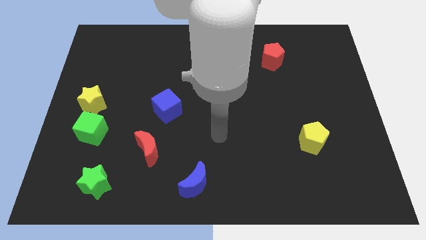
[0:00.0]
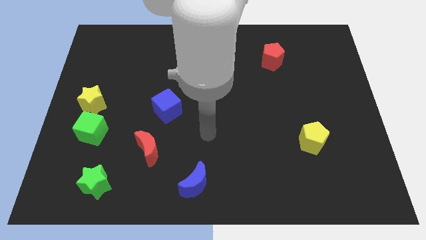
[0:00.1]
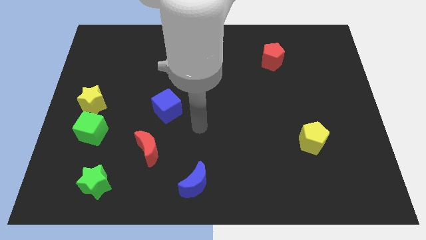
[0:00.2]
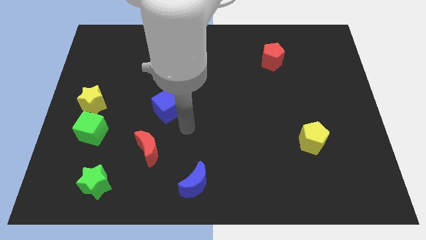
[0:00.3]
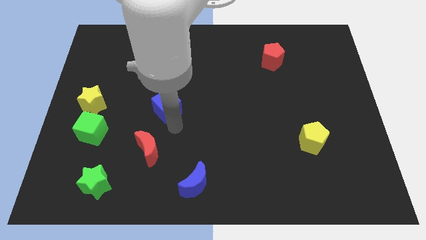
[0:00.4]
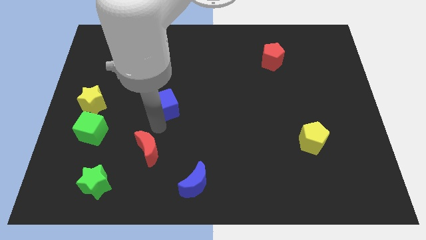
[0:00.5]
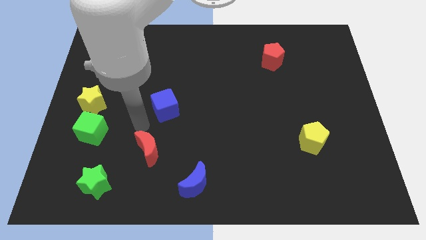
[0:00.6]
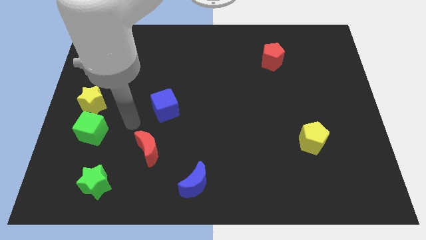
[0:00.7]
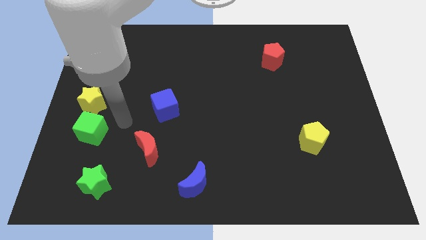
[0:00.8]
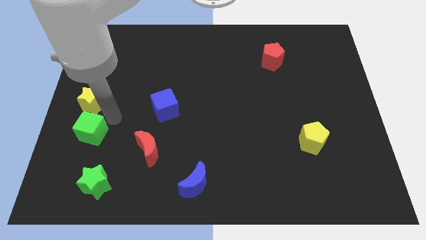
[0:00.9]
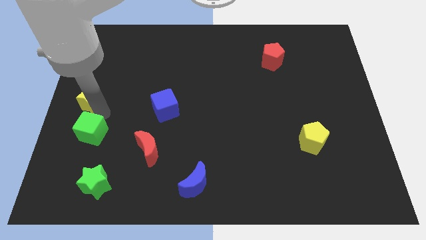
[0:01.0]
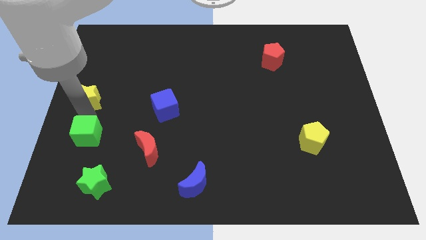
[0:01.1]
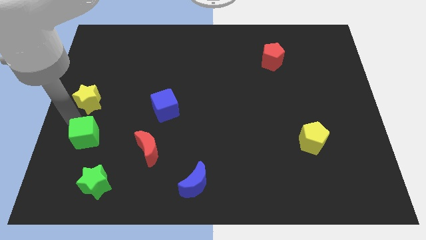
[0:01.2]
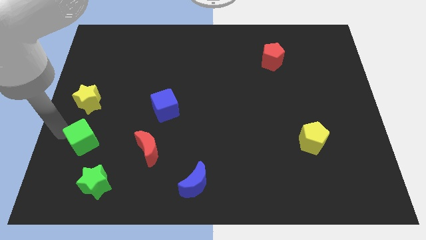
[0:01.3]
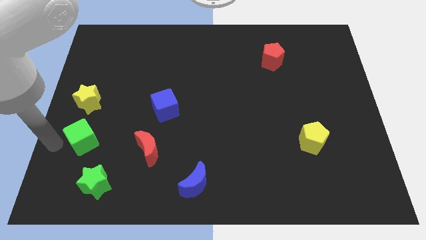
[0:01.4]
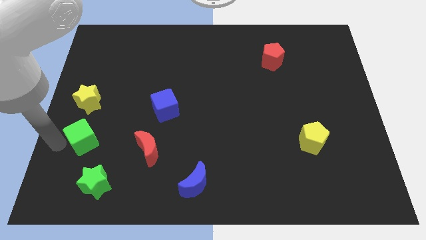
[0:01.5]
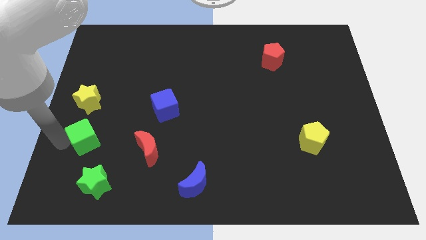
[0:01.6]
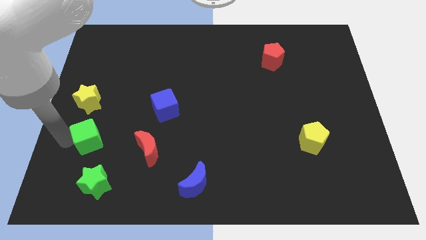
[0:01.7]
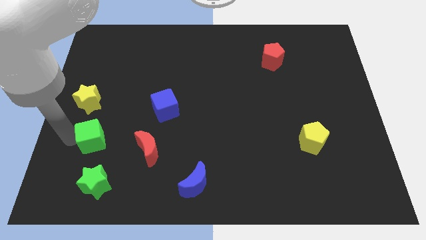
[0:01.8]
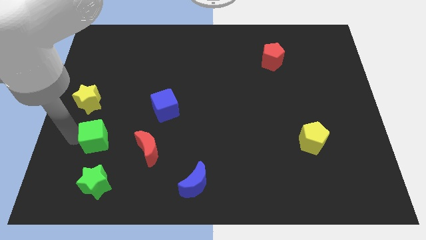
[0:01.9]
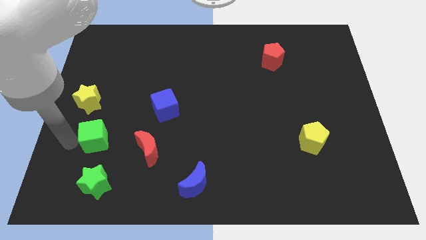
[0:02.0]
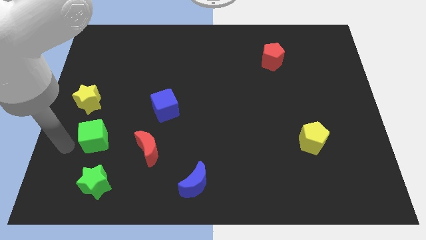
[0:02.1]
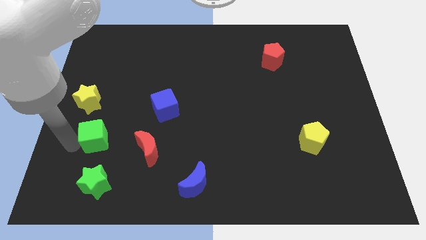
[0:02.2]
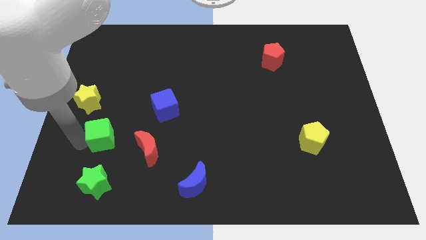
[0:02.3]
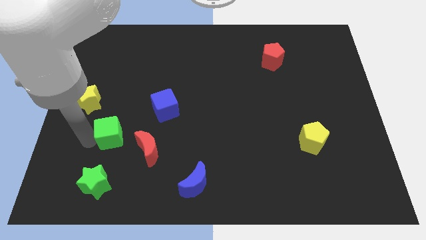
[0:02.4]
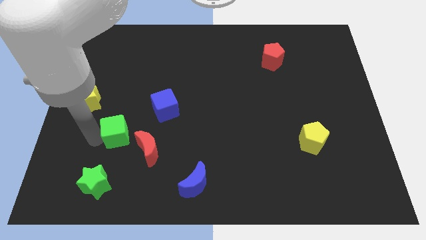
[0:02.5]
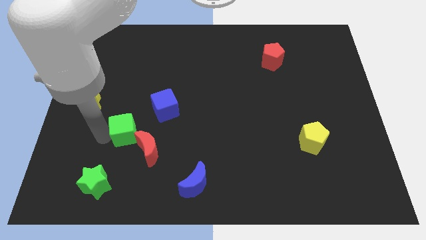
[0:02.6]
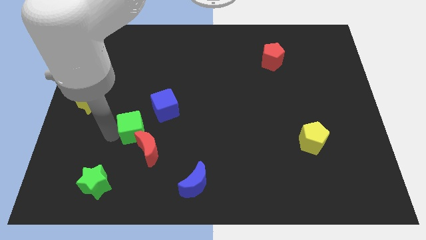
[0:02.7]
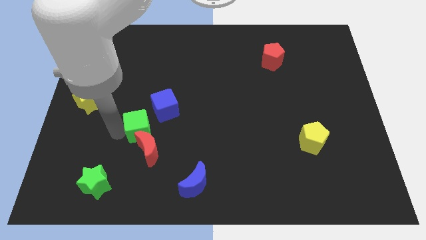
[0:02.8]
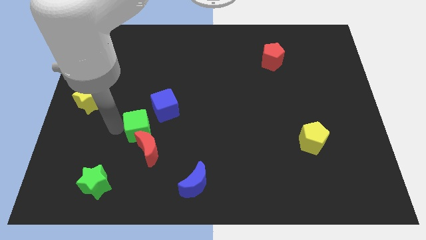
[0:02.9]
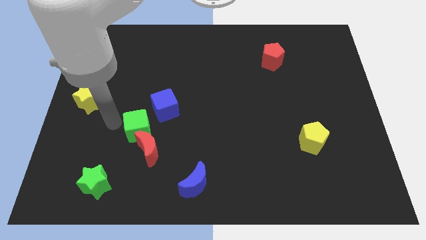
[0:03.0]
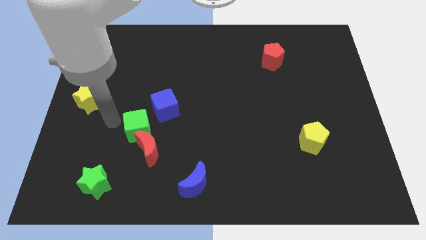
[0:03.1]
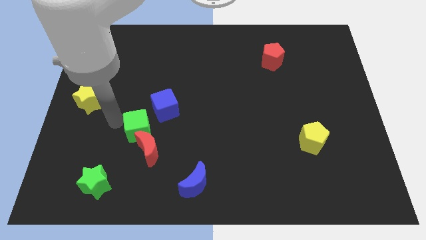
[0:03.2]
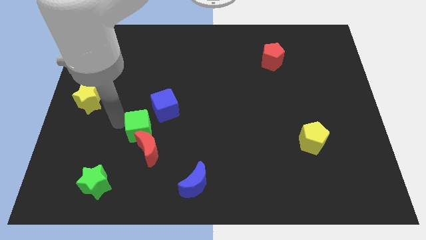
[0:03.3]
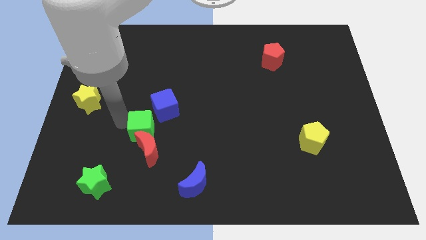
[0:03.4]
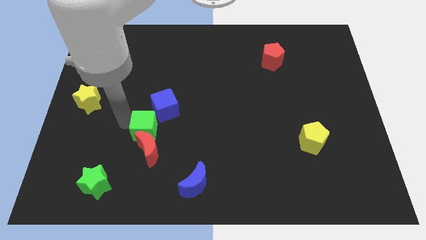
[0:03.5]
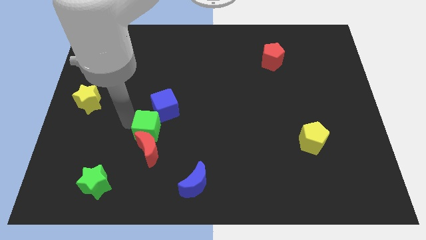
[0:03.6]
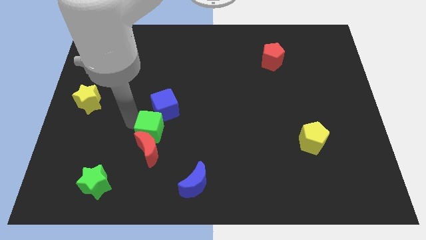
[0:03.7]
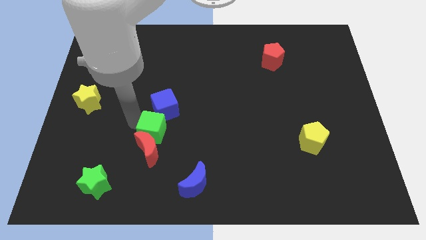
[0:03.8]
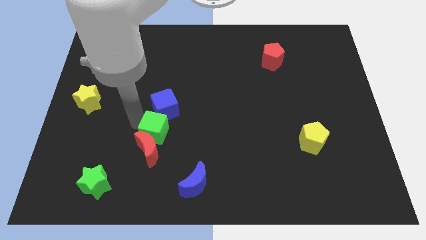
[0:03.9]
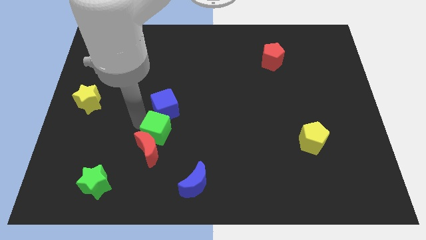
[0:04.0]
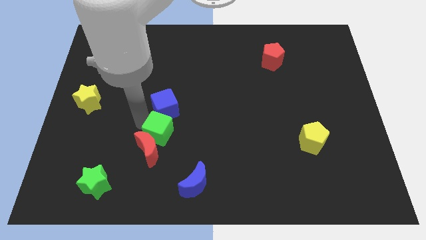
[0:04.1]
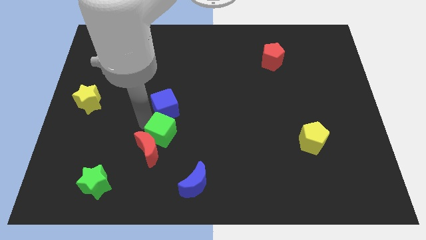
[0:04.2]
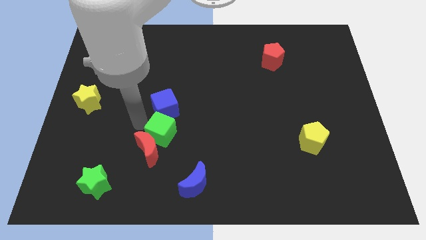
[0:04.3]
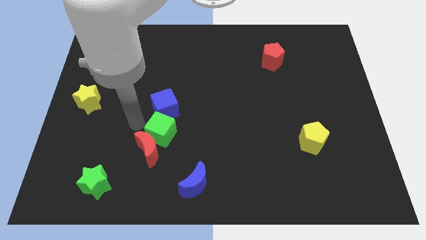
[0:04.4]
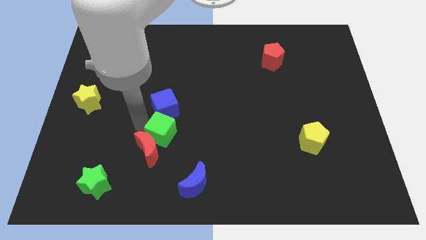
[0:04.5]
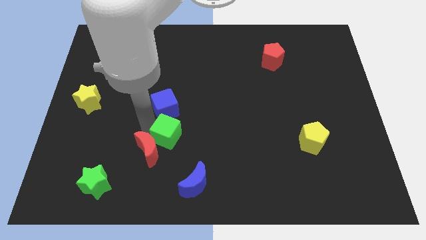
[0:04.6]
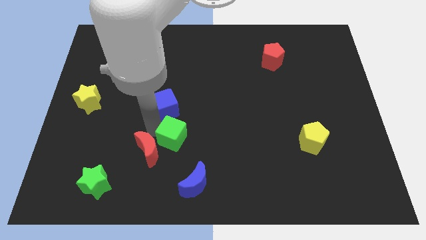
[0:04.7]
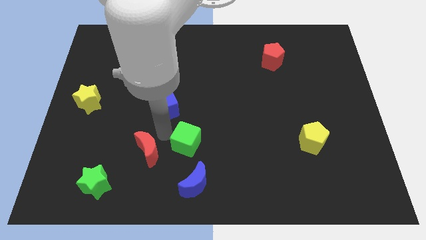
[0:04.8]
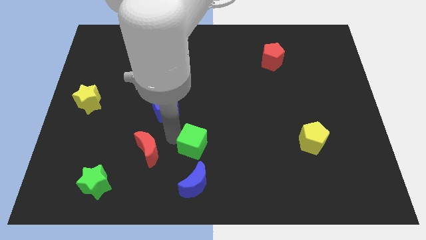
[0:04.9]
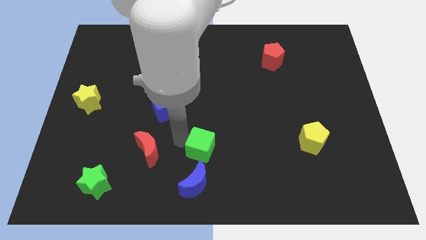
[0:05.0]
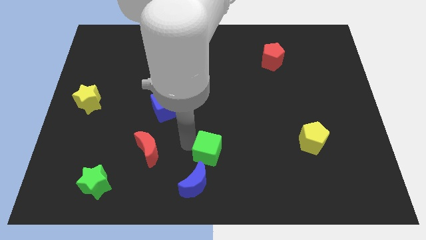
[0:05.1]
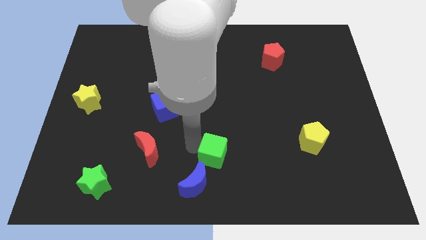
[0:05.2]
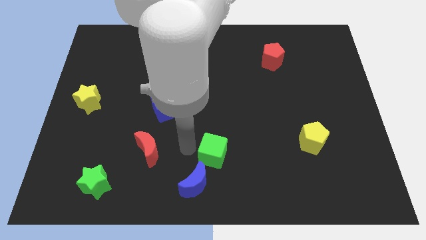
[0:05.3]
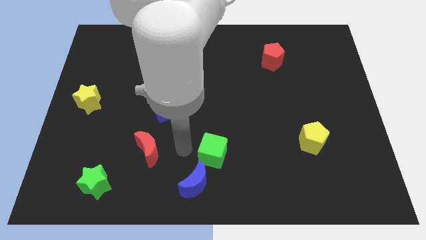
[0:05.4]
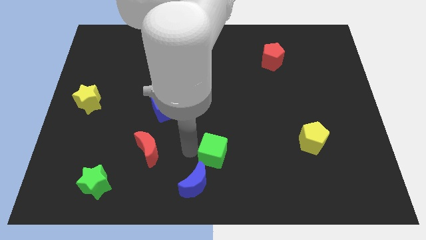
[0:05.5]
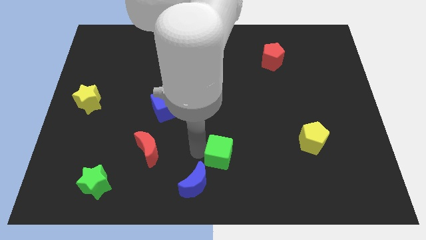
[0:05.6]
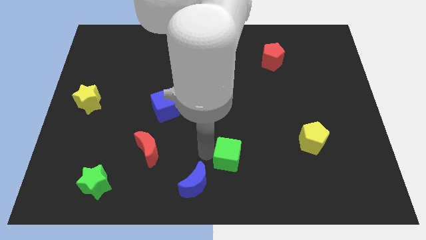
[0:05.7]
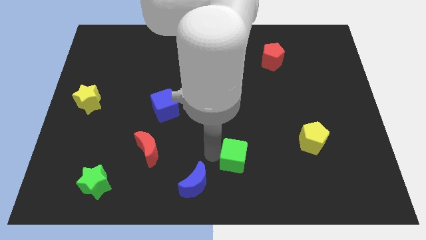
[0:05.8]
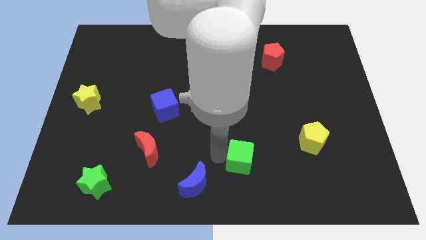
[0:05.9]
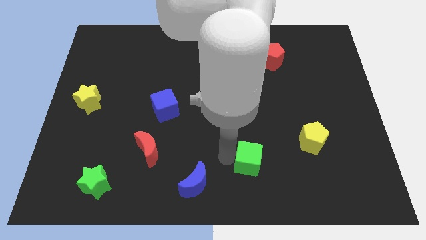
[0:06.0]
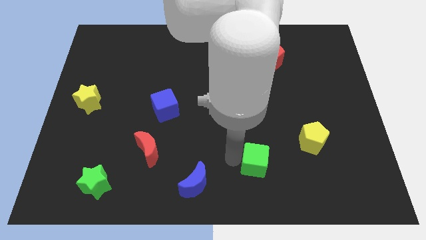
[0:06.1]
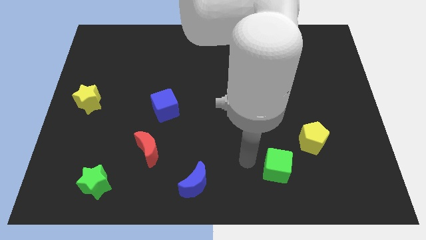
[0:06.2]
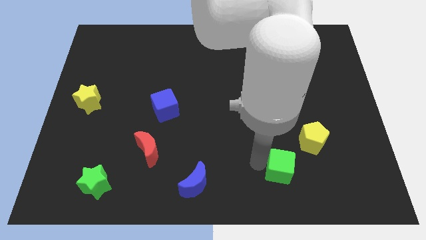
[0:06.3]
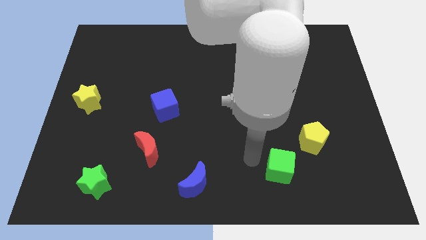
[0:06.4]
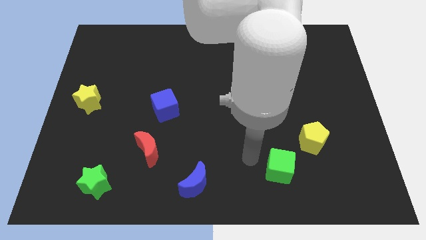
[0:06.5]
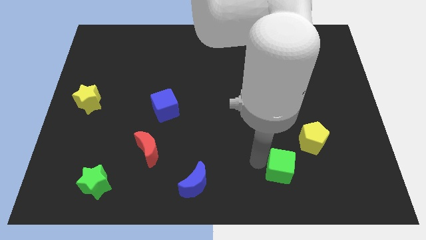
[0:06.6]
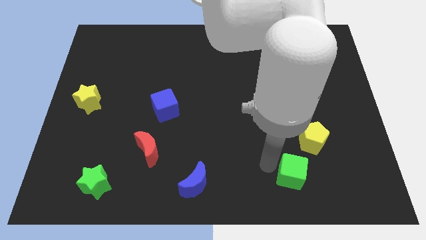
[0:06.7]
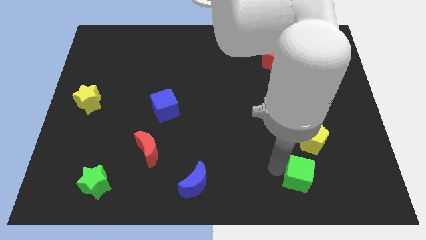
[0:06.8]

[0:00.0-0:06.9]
move the green cube to the bottom side of the yellow pentagon

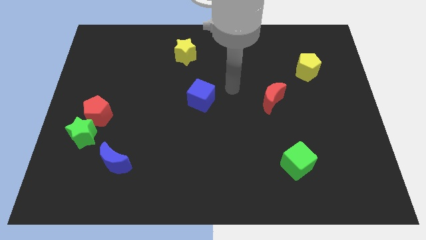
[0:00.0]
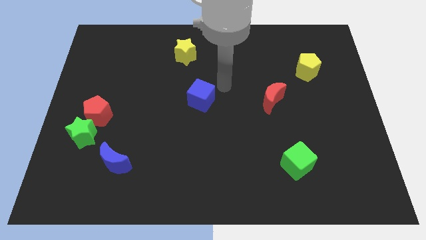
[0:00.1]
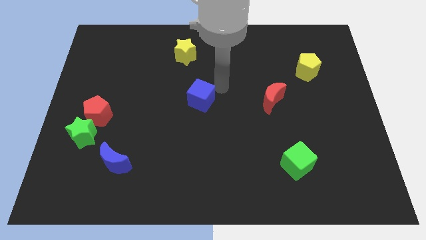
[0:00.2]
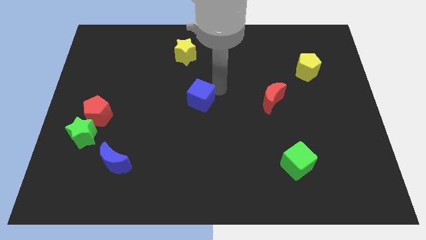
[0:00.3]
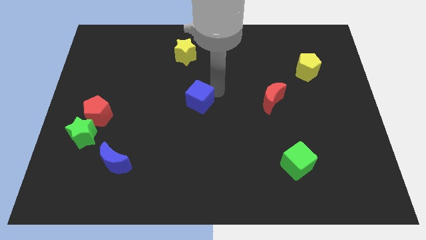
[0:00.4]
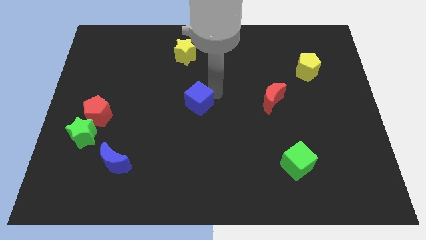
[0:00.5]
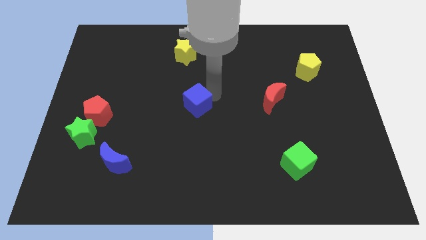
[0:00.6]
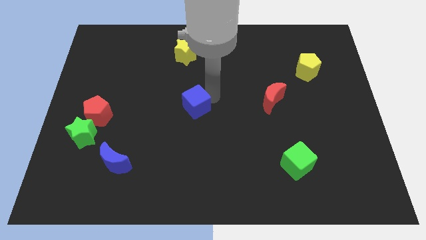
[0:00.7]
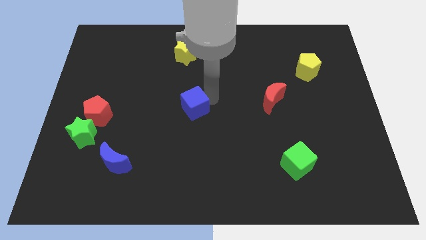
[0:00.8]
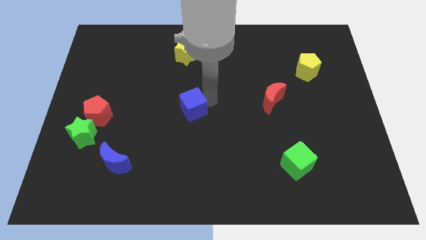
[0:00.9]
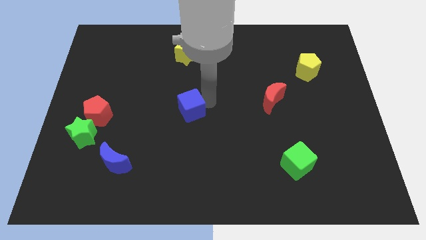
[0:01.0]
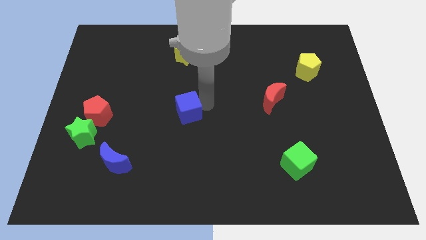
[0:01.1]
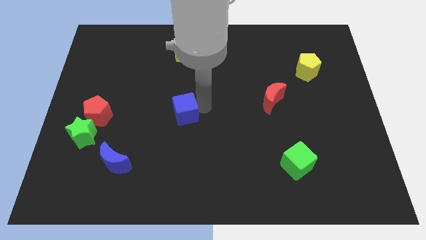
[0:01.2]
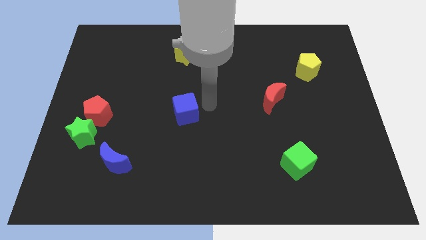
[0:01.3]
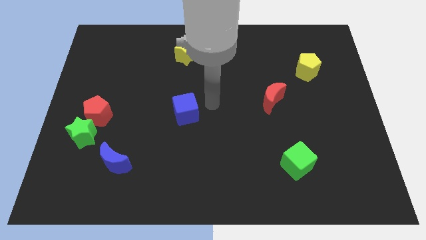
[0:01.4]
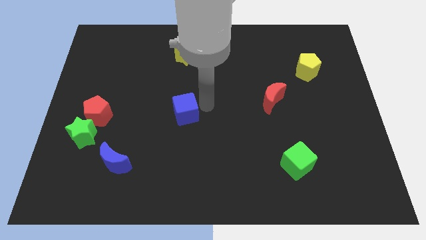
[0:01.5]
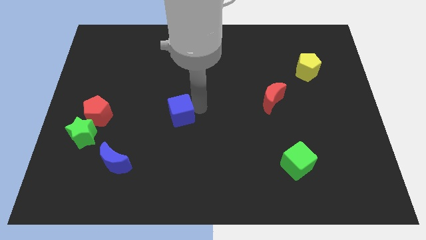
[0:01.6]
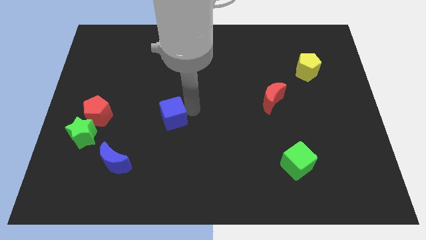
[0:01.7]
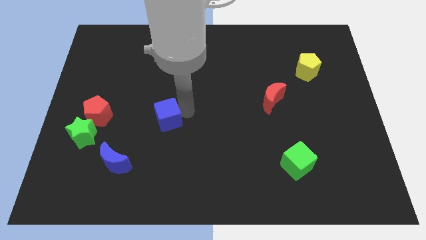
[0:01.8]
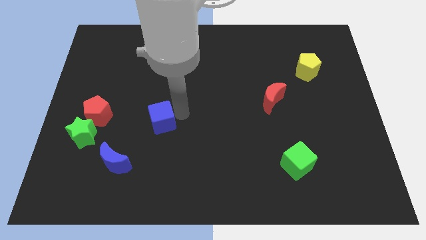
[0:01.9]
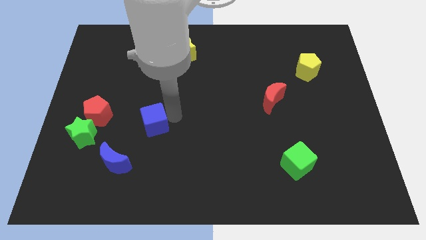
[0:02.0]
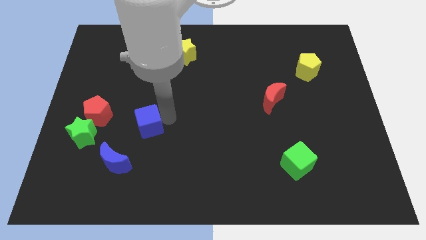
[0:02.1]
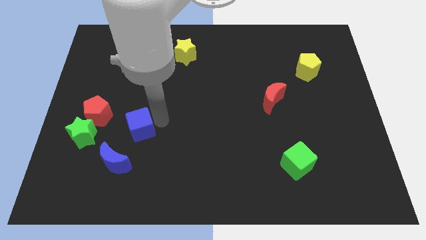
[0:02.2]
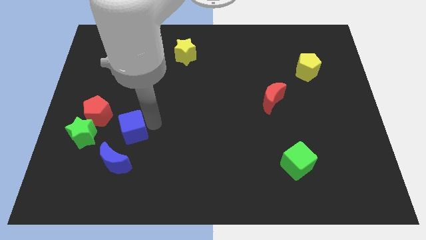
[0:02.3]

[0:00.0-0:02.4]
push the blue cube to the bottom right of the red pentagon
